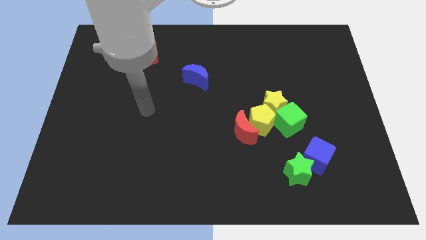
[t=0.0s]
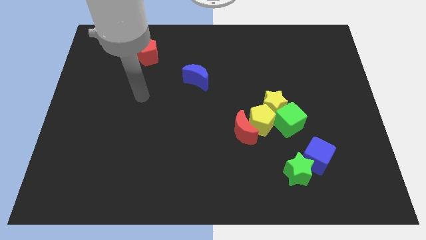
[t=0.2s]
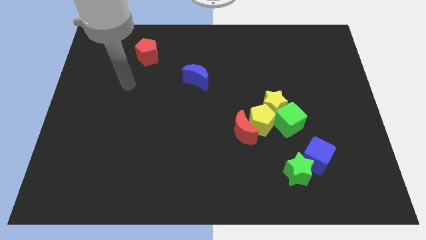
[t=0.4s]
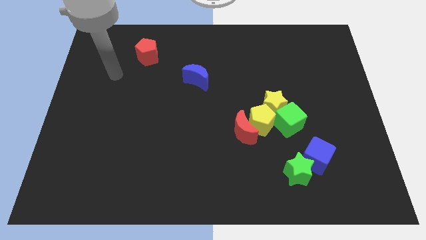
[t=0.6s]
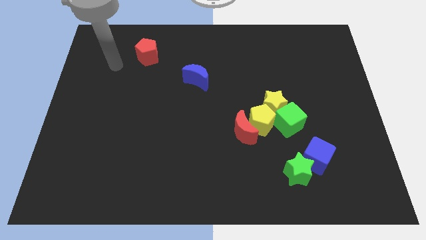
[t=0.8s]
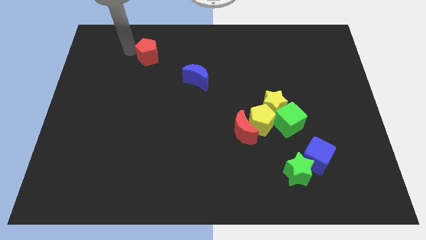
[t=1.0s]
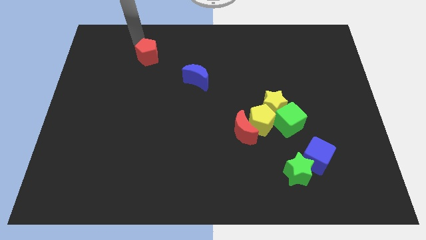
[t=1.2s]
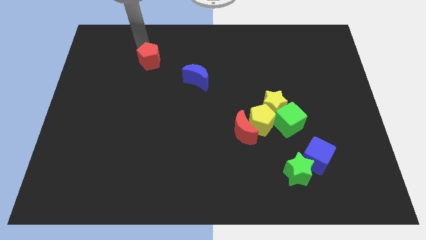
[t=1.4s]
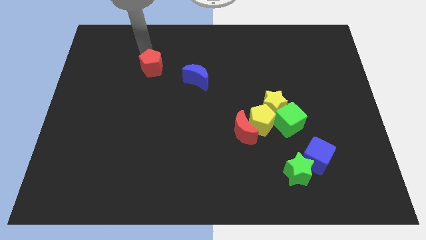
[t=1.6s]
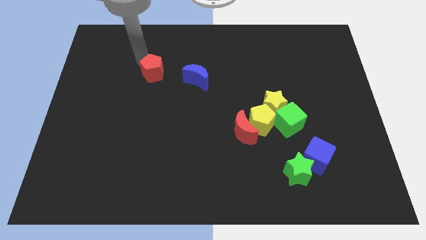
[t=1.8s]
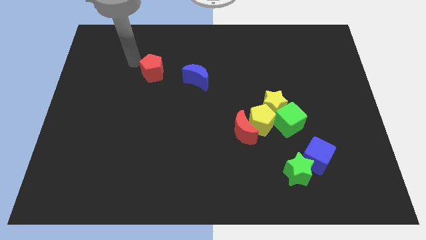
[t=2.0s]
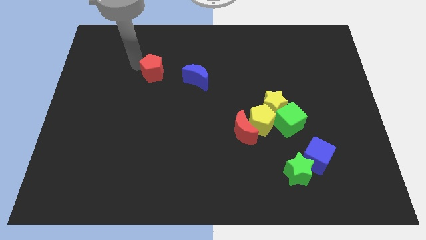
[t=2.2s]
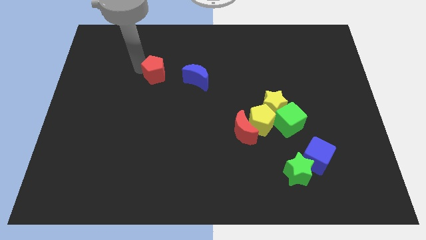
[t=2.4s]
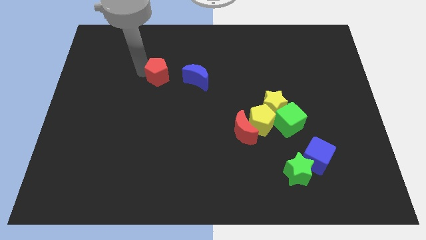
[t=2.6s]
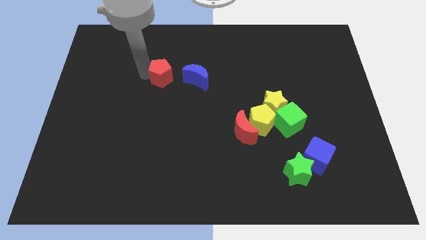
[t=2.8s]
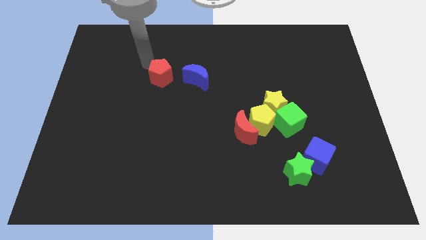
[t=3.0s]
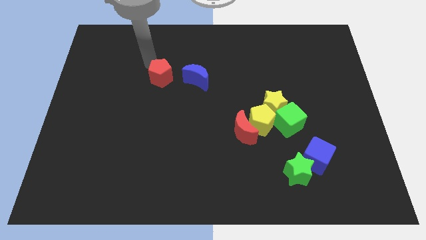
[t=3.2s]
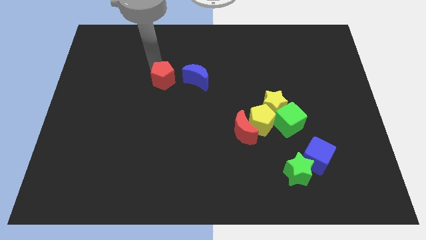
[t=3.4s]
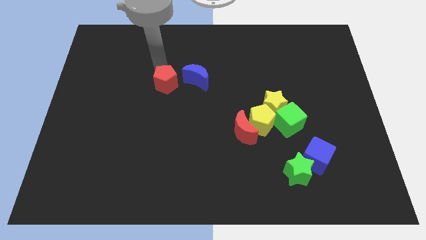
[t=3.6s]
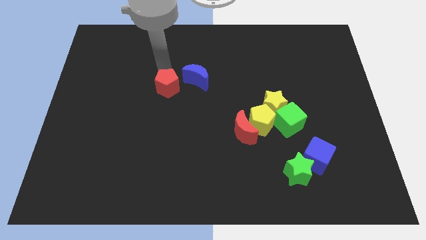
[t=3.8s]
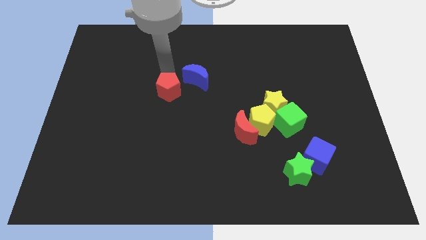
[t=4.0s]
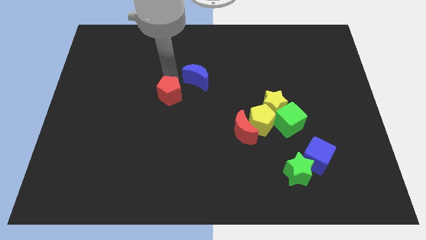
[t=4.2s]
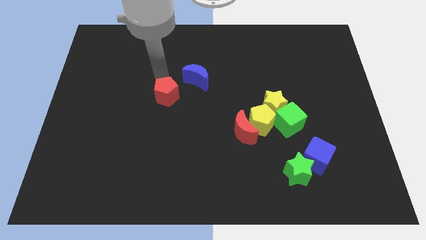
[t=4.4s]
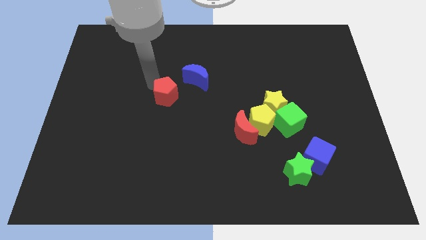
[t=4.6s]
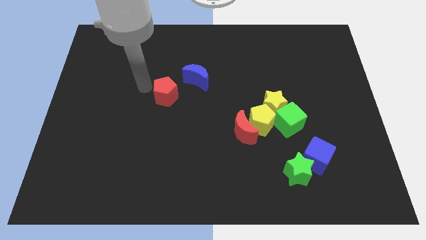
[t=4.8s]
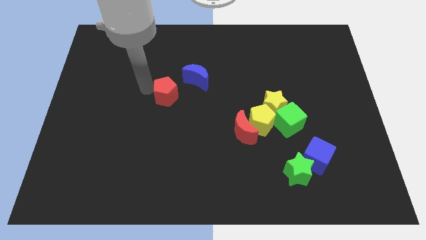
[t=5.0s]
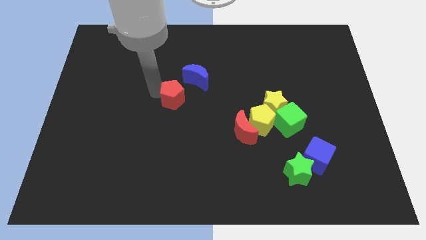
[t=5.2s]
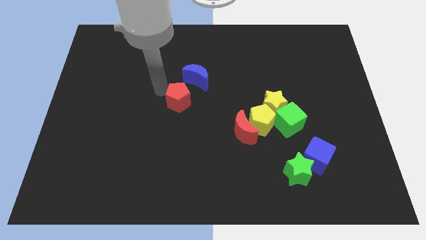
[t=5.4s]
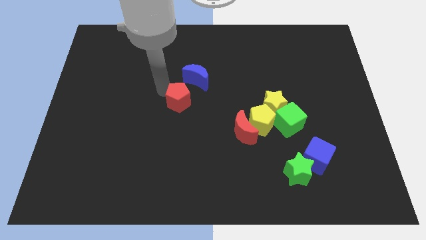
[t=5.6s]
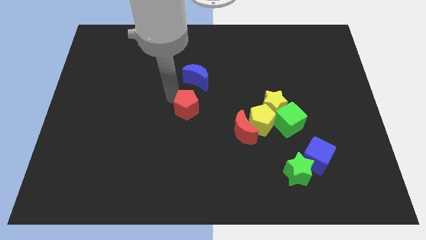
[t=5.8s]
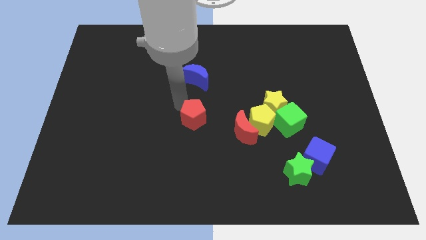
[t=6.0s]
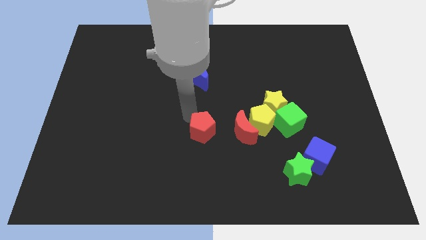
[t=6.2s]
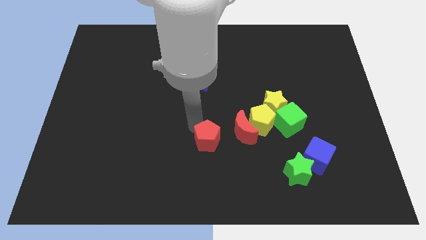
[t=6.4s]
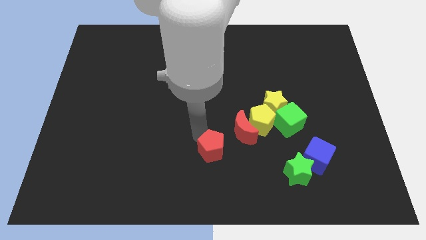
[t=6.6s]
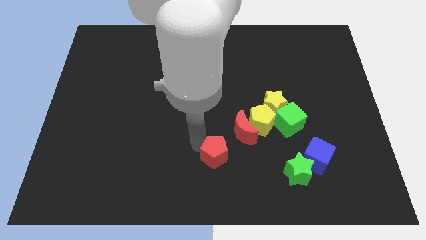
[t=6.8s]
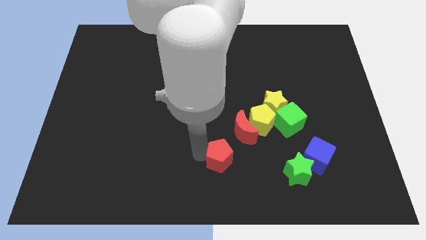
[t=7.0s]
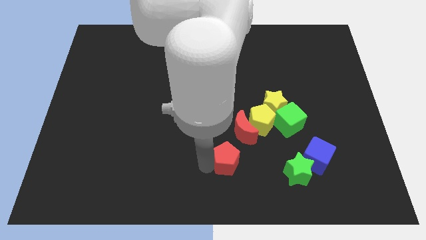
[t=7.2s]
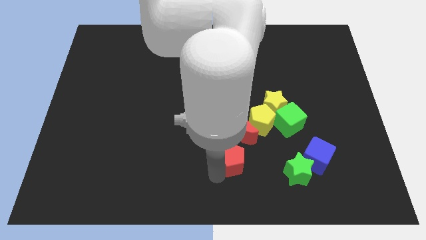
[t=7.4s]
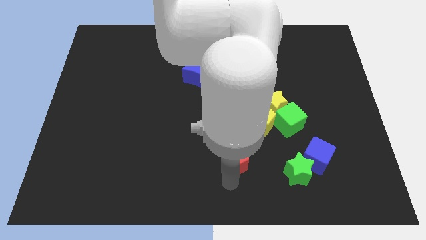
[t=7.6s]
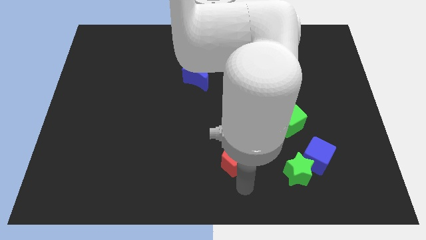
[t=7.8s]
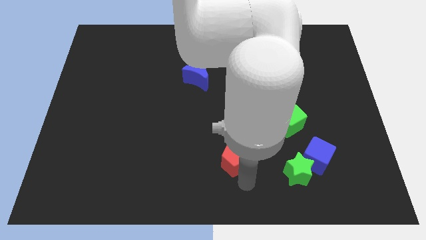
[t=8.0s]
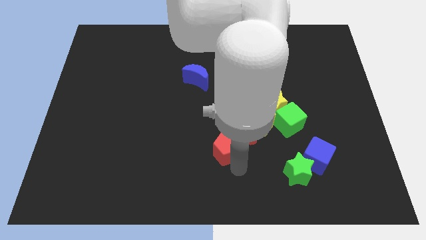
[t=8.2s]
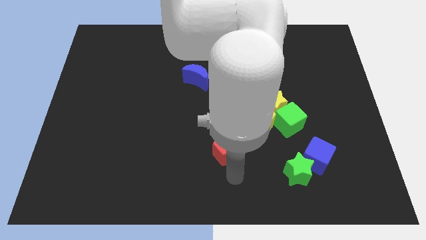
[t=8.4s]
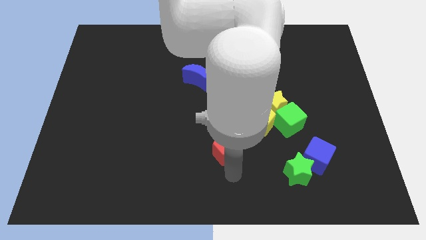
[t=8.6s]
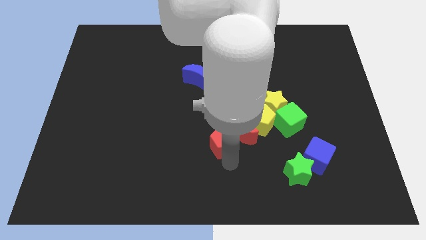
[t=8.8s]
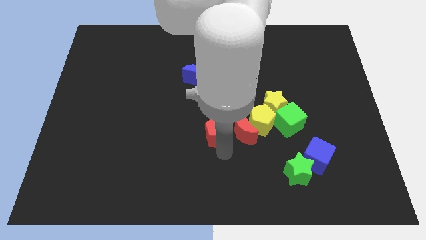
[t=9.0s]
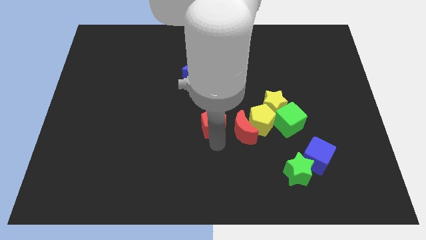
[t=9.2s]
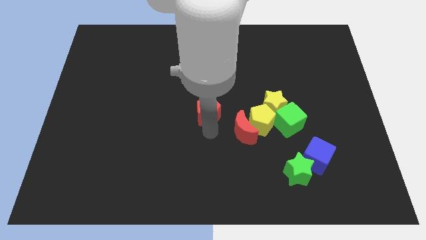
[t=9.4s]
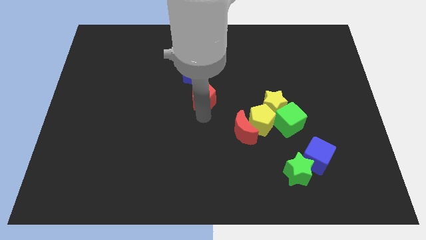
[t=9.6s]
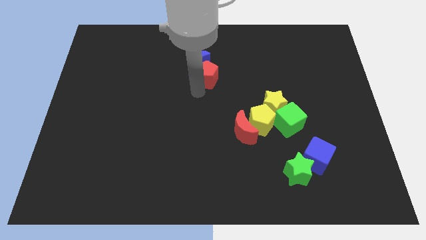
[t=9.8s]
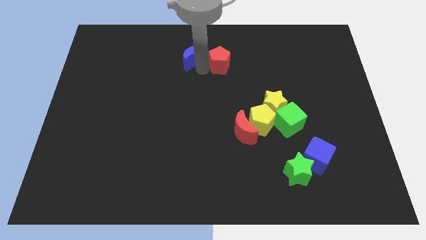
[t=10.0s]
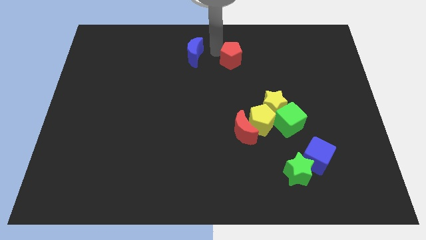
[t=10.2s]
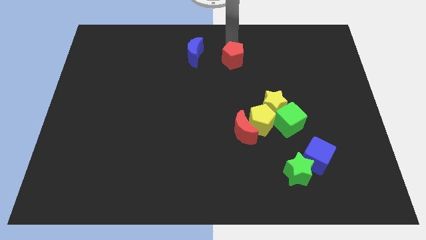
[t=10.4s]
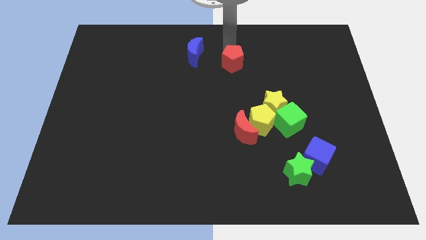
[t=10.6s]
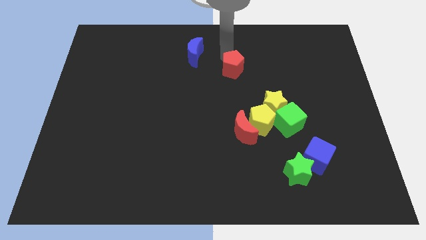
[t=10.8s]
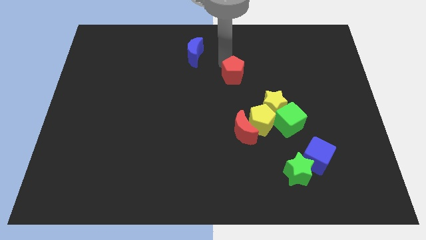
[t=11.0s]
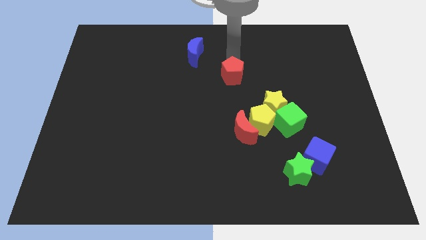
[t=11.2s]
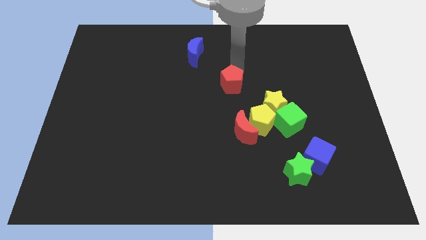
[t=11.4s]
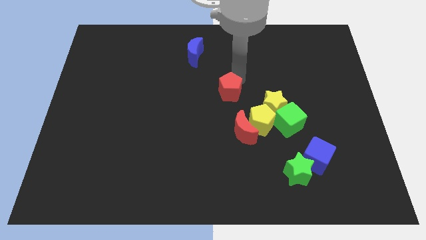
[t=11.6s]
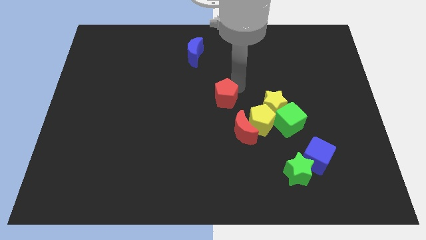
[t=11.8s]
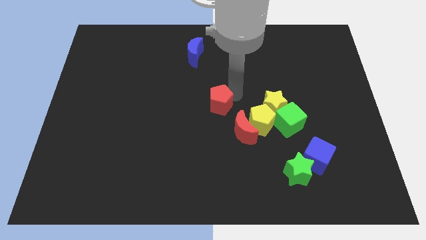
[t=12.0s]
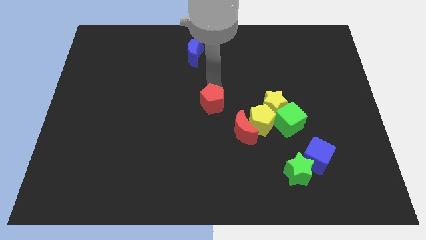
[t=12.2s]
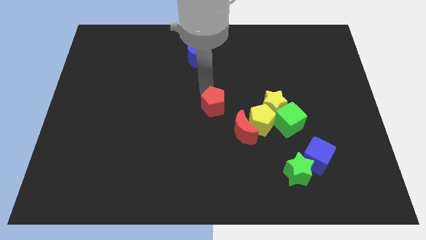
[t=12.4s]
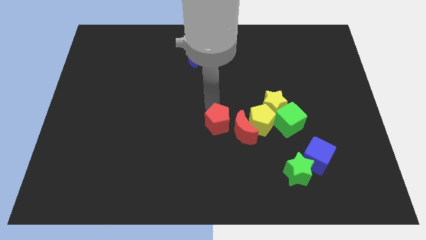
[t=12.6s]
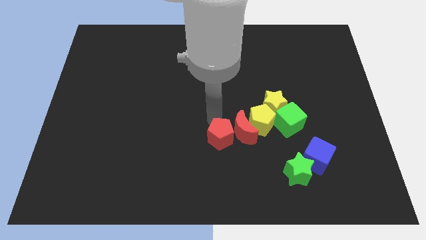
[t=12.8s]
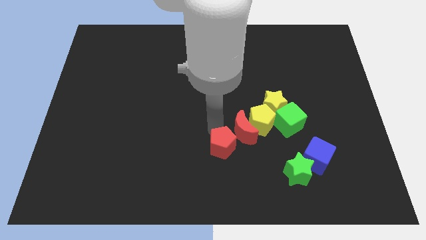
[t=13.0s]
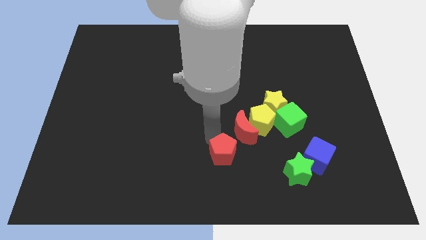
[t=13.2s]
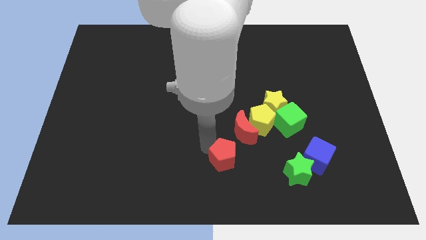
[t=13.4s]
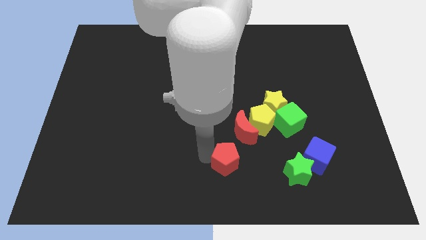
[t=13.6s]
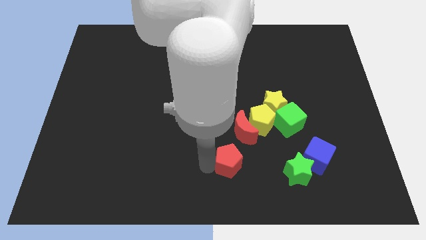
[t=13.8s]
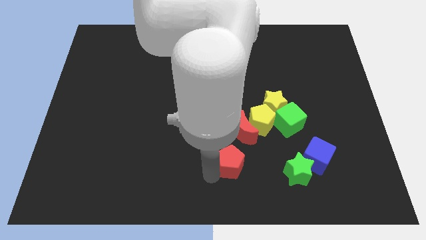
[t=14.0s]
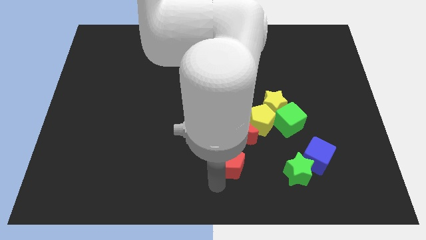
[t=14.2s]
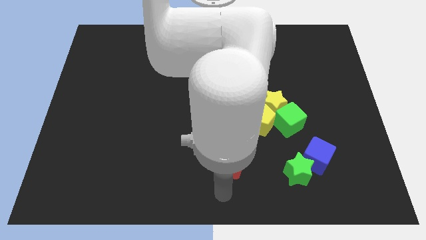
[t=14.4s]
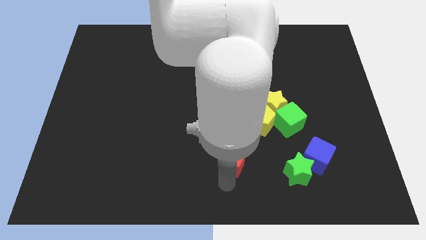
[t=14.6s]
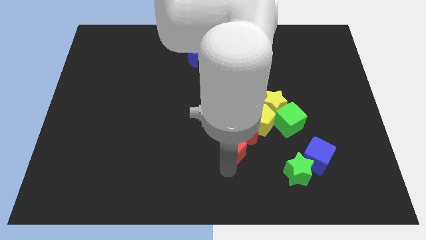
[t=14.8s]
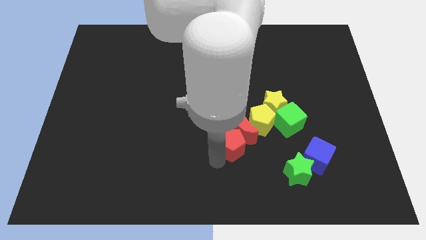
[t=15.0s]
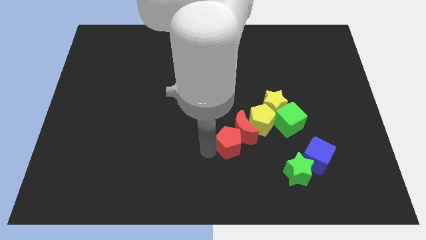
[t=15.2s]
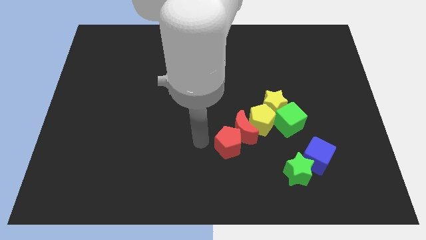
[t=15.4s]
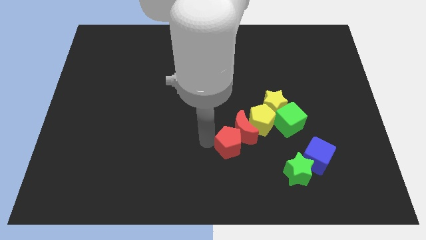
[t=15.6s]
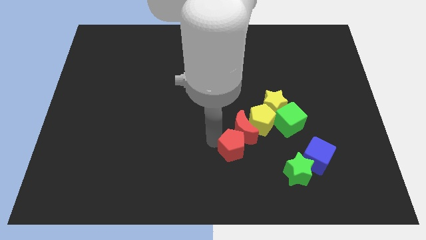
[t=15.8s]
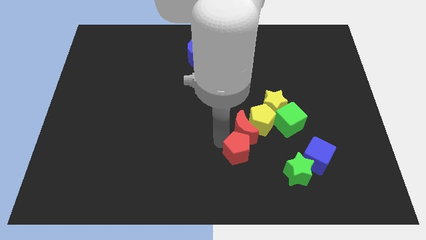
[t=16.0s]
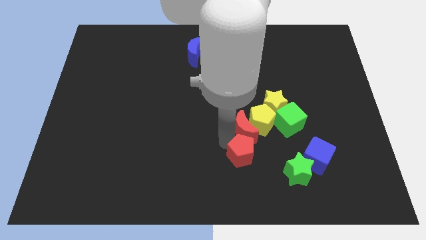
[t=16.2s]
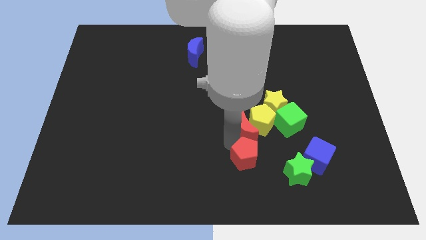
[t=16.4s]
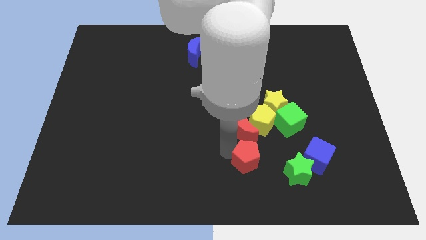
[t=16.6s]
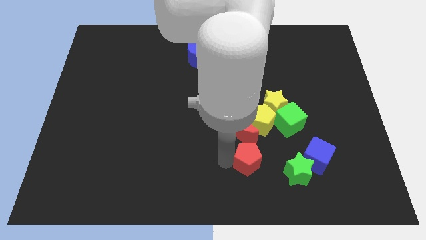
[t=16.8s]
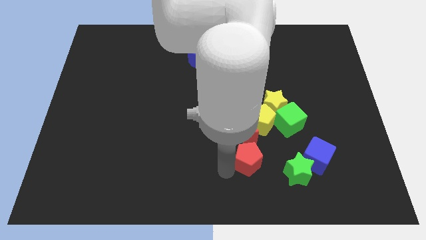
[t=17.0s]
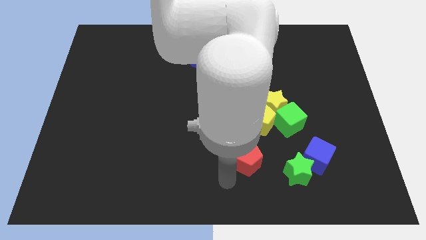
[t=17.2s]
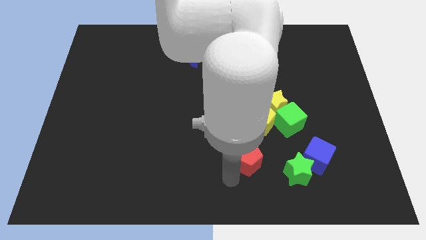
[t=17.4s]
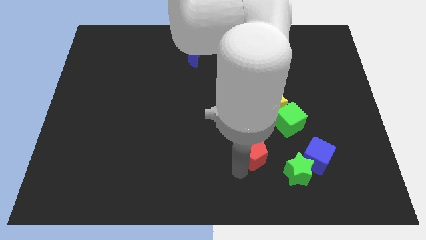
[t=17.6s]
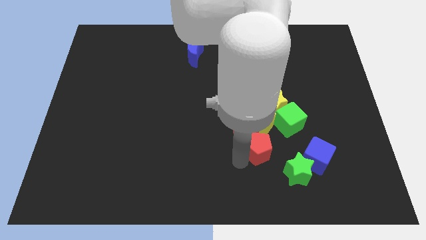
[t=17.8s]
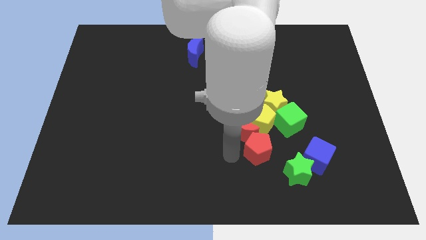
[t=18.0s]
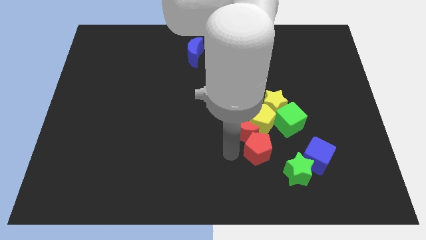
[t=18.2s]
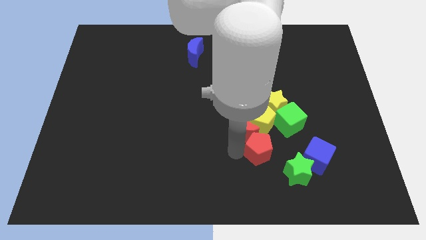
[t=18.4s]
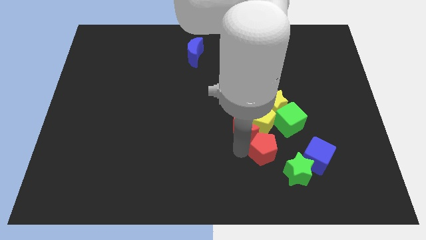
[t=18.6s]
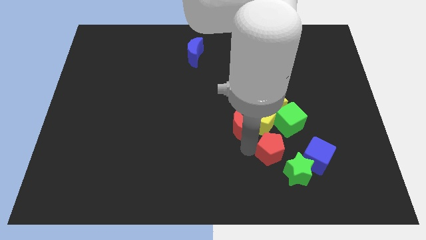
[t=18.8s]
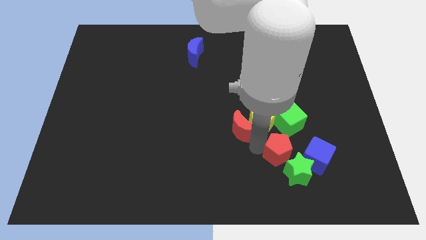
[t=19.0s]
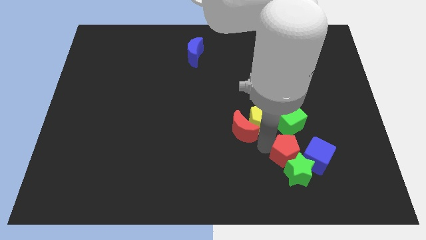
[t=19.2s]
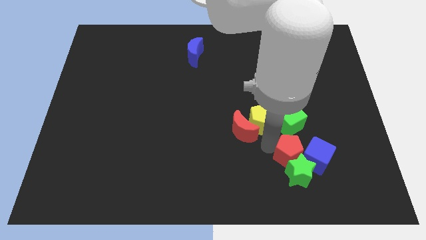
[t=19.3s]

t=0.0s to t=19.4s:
slide the red pentagon to the blue cube
